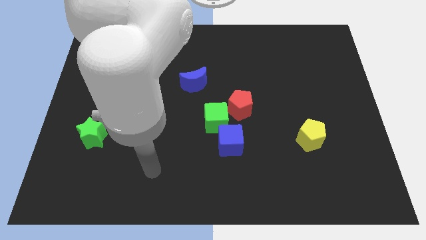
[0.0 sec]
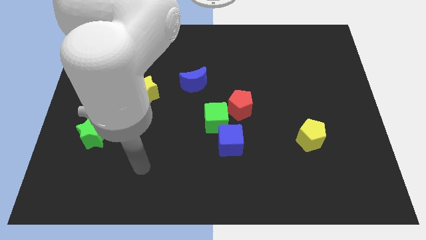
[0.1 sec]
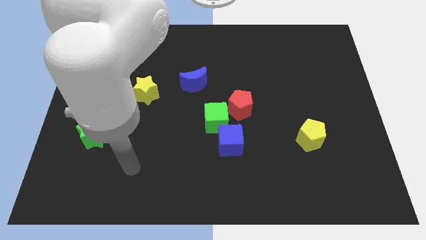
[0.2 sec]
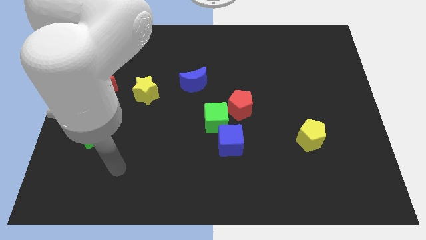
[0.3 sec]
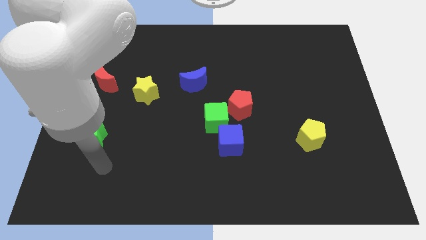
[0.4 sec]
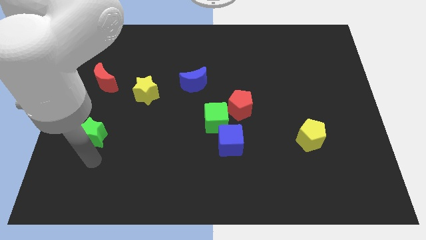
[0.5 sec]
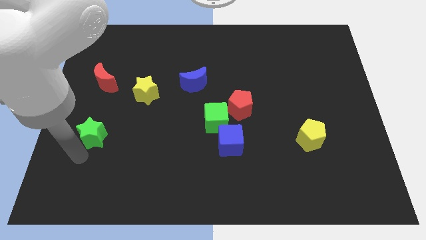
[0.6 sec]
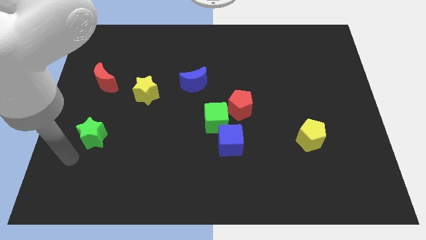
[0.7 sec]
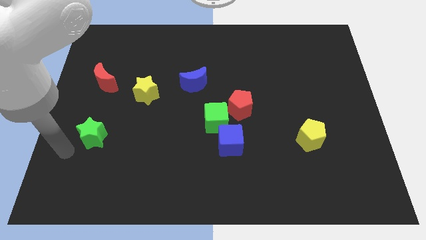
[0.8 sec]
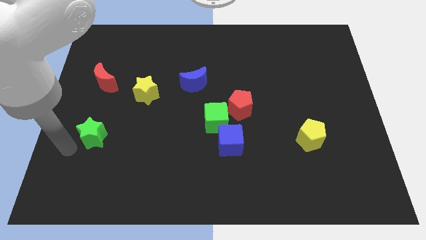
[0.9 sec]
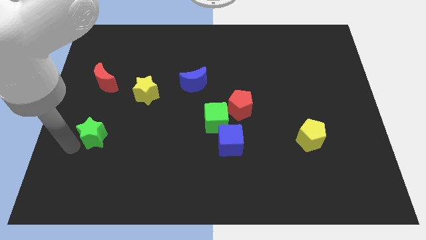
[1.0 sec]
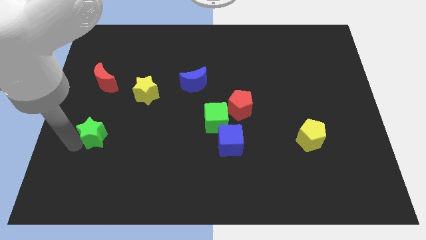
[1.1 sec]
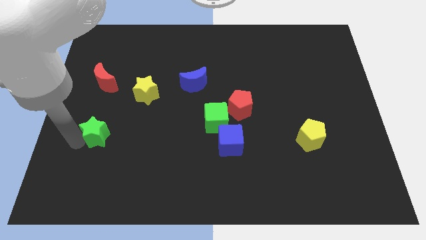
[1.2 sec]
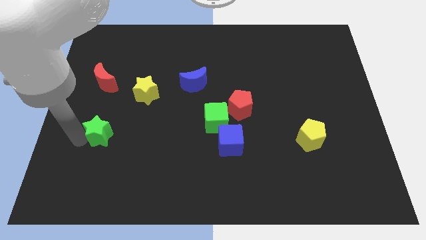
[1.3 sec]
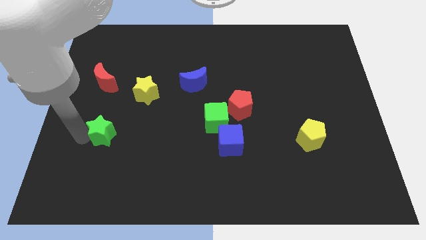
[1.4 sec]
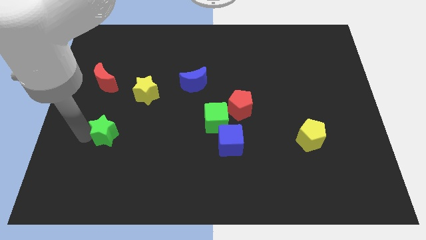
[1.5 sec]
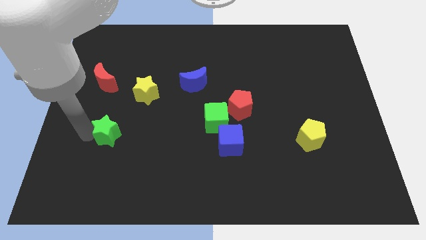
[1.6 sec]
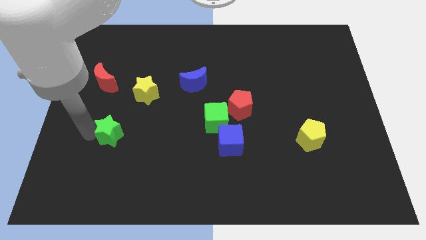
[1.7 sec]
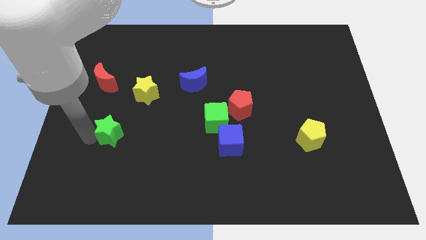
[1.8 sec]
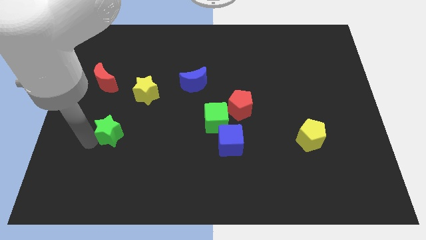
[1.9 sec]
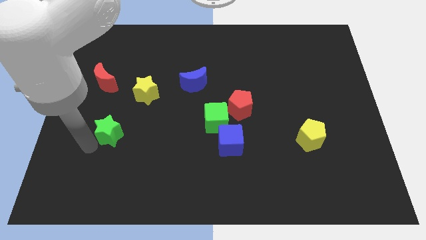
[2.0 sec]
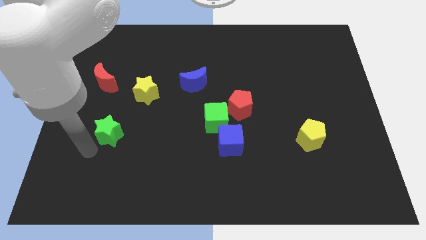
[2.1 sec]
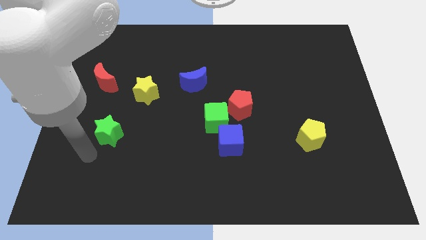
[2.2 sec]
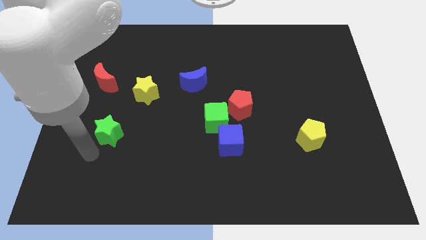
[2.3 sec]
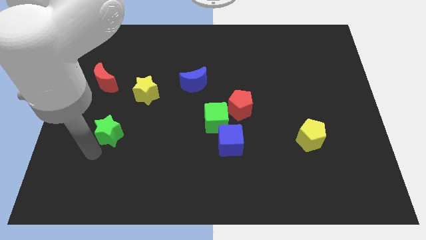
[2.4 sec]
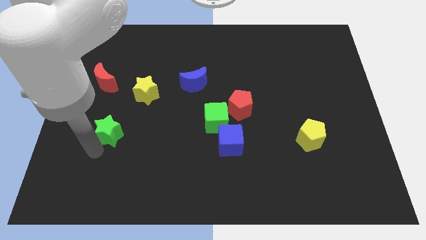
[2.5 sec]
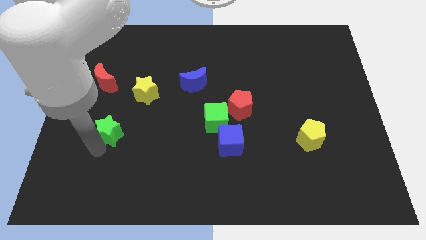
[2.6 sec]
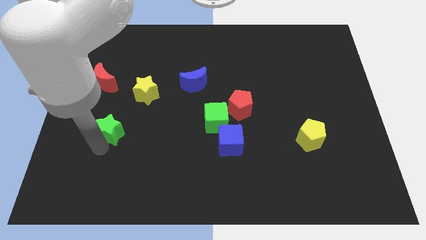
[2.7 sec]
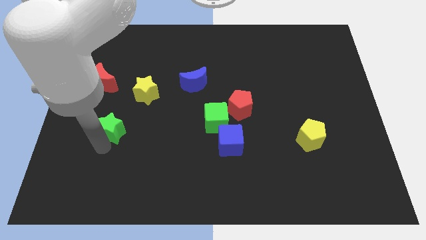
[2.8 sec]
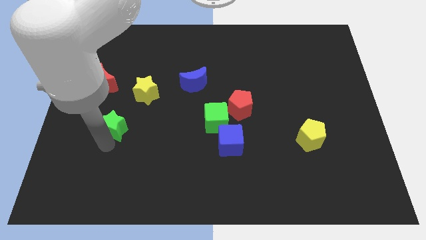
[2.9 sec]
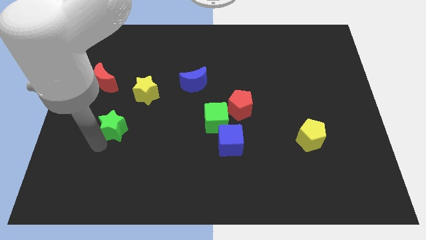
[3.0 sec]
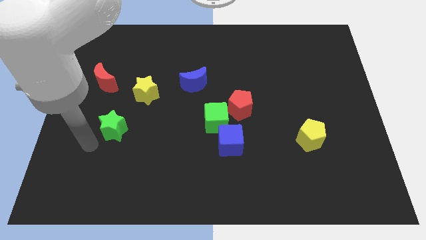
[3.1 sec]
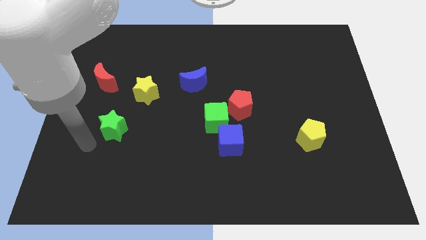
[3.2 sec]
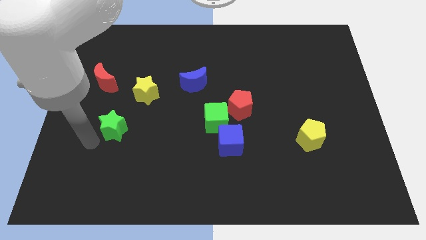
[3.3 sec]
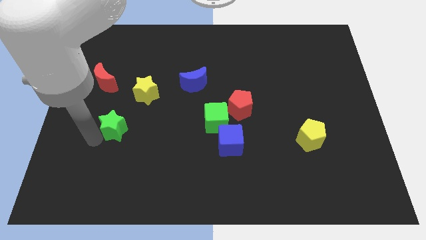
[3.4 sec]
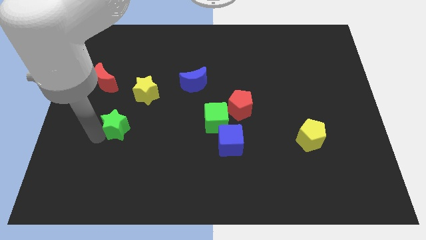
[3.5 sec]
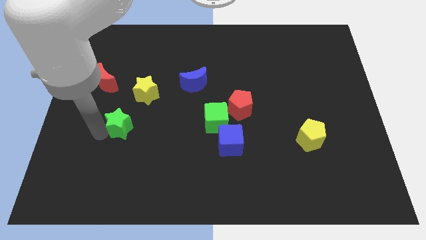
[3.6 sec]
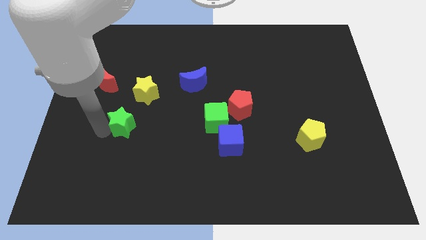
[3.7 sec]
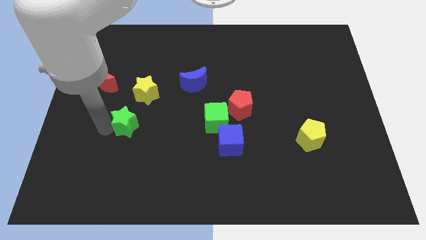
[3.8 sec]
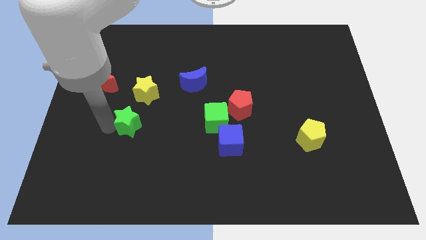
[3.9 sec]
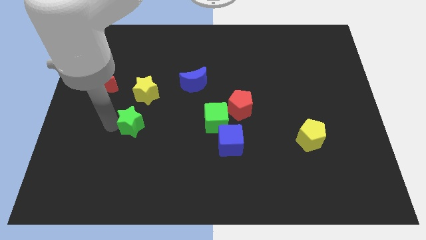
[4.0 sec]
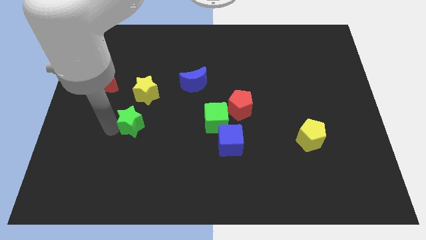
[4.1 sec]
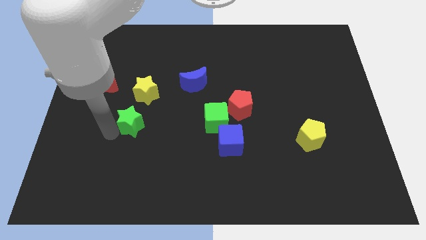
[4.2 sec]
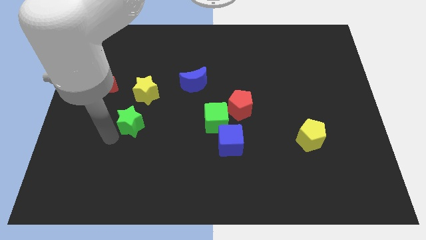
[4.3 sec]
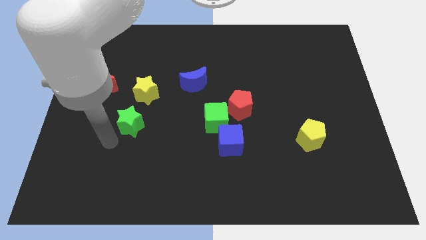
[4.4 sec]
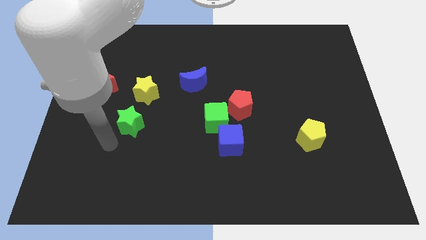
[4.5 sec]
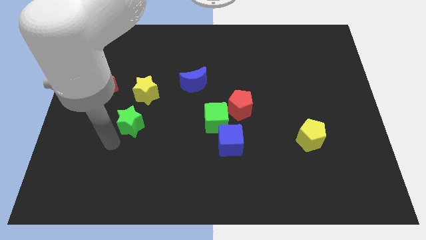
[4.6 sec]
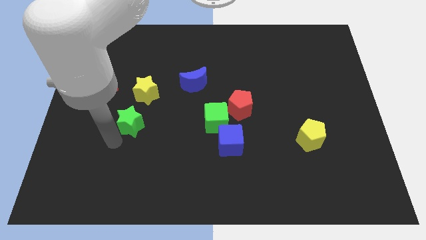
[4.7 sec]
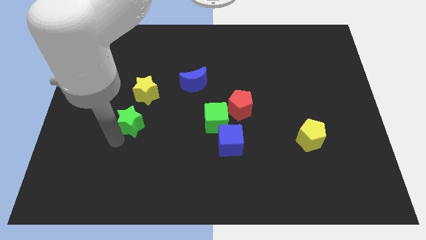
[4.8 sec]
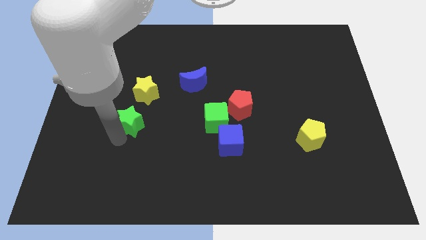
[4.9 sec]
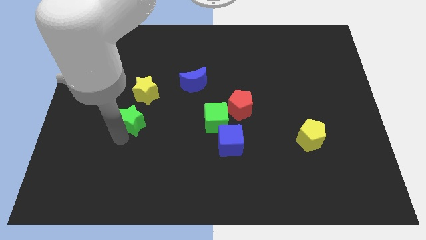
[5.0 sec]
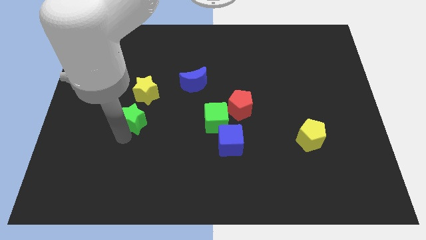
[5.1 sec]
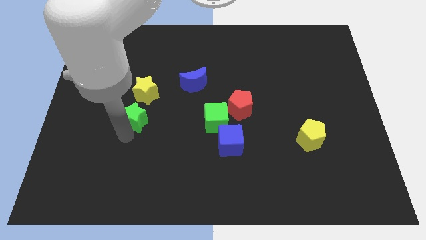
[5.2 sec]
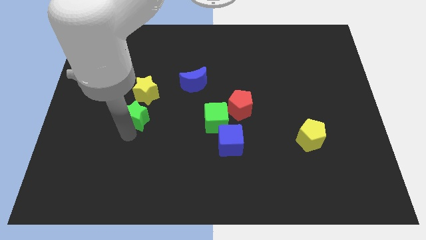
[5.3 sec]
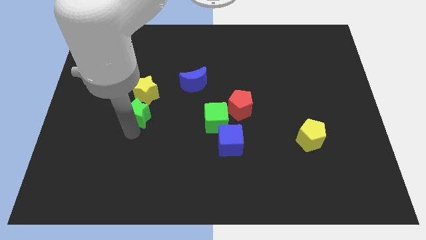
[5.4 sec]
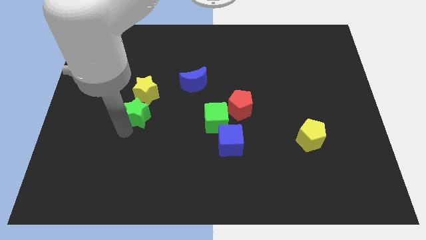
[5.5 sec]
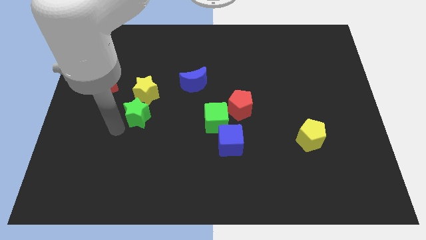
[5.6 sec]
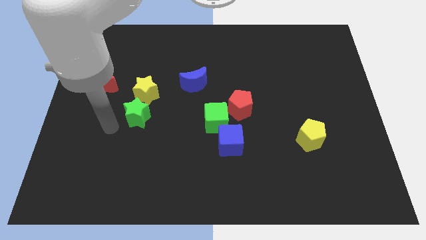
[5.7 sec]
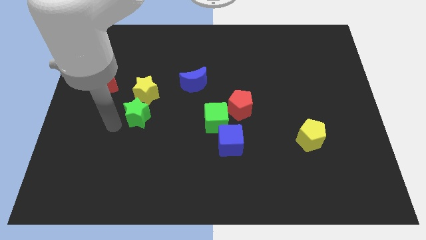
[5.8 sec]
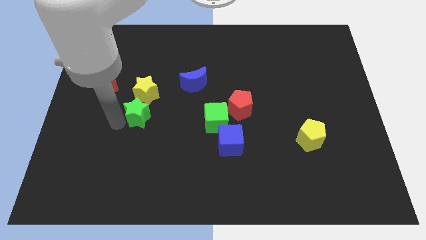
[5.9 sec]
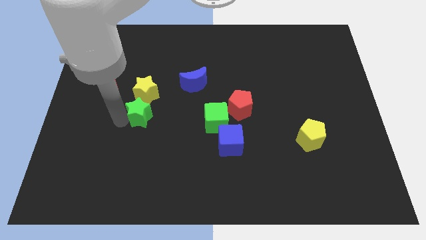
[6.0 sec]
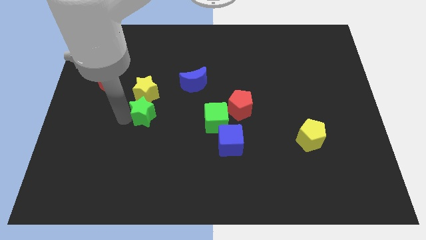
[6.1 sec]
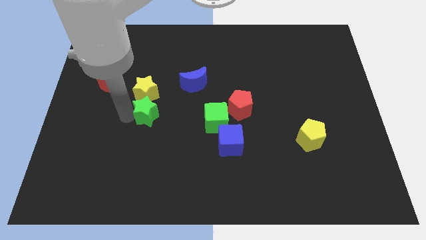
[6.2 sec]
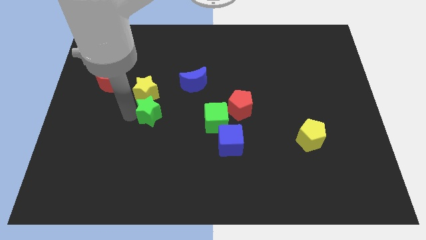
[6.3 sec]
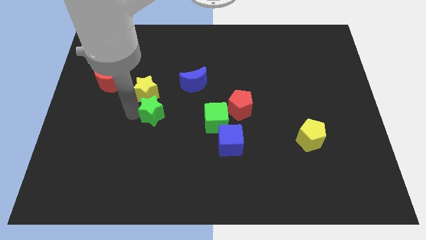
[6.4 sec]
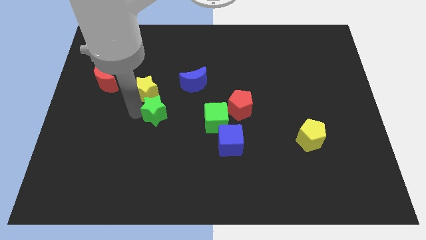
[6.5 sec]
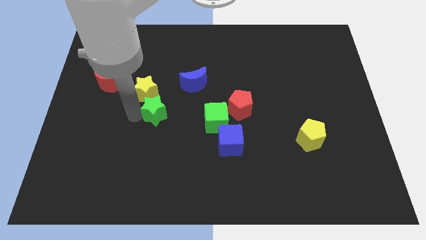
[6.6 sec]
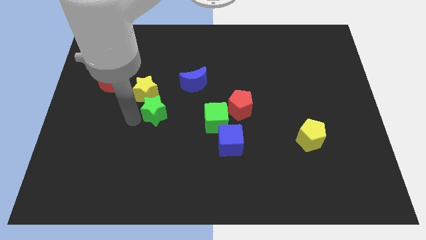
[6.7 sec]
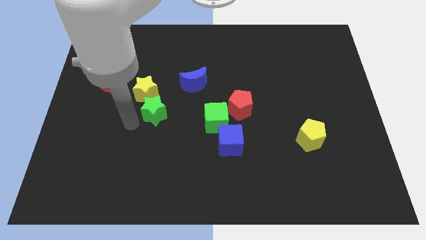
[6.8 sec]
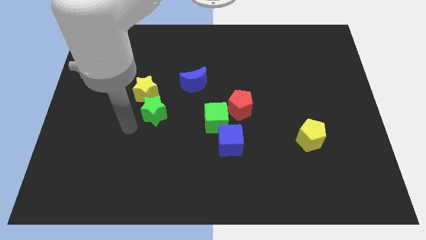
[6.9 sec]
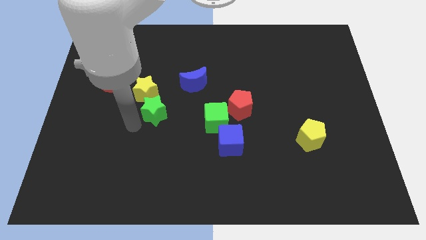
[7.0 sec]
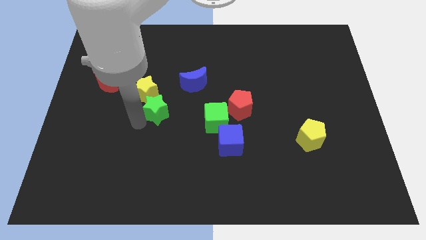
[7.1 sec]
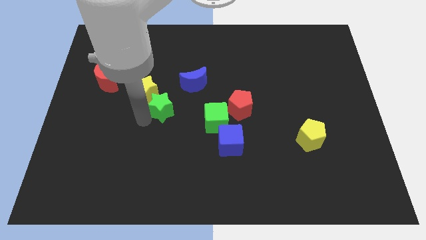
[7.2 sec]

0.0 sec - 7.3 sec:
put the green star just right of the yellow star

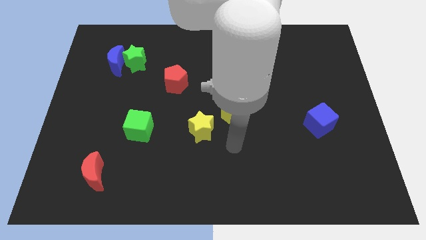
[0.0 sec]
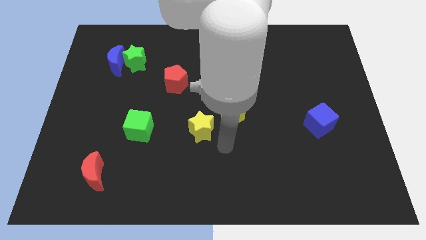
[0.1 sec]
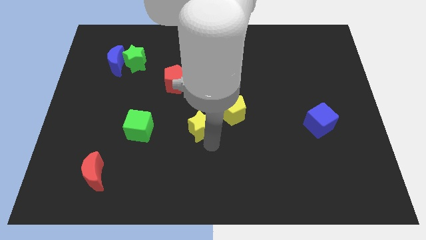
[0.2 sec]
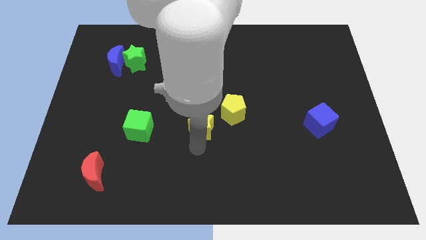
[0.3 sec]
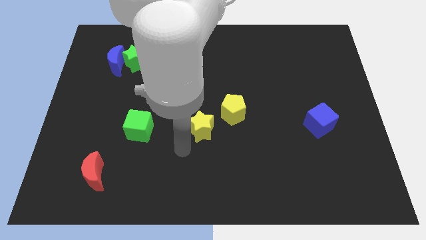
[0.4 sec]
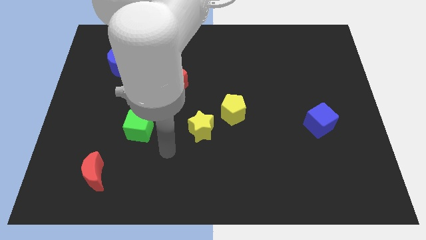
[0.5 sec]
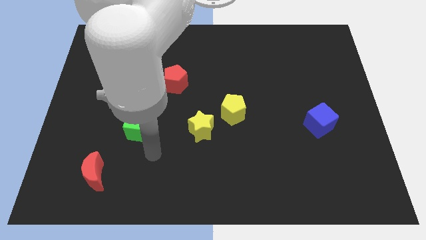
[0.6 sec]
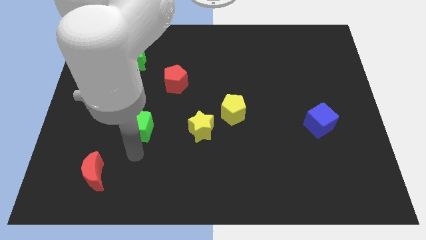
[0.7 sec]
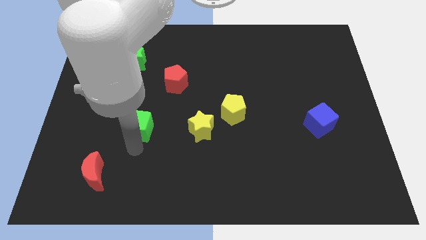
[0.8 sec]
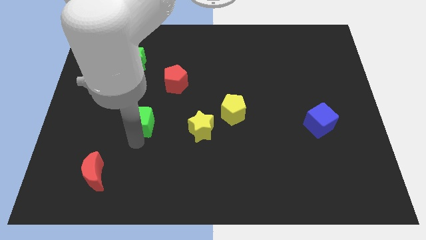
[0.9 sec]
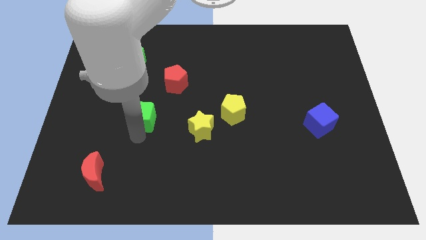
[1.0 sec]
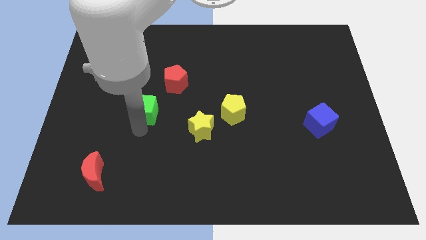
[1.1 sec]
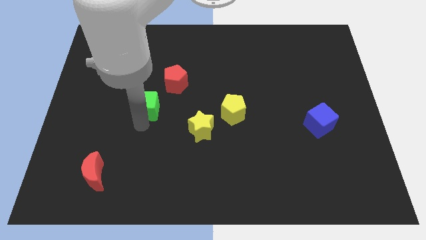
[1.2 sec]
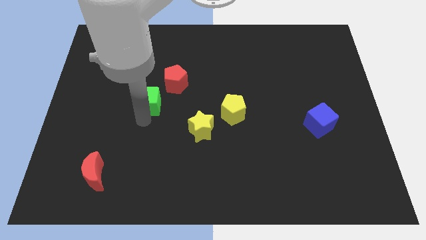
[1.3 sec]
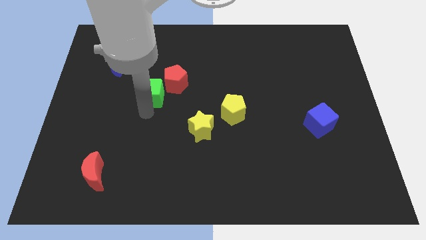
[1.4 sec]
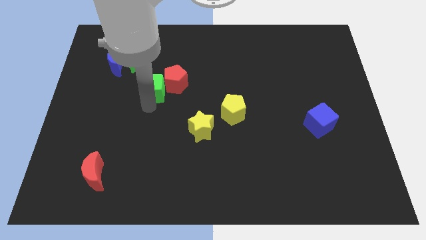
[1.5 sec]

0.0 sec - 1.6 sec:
move the green cube diagonally down and to the right of the green star
